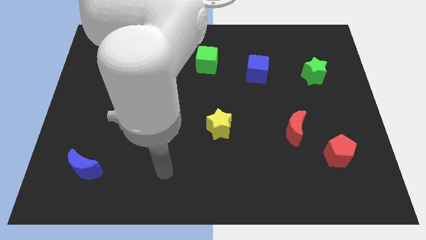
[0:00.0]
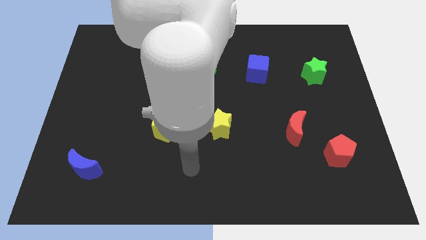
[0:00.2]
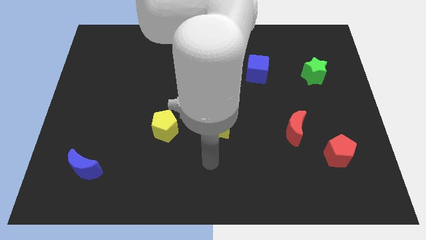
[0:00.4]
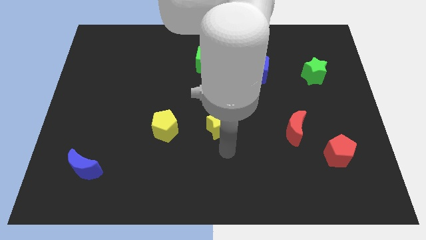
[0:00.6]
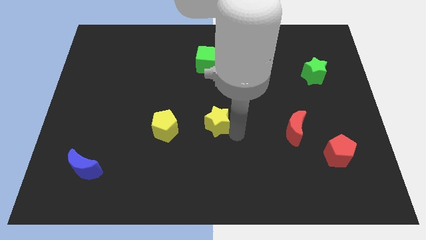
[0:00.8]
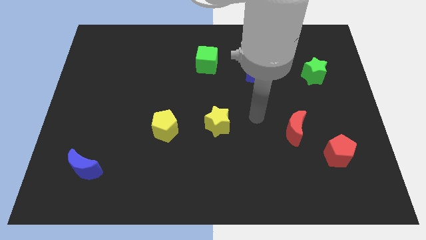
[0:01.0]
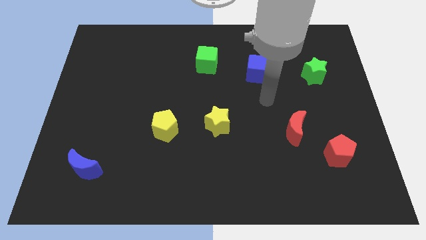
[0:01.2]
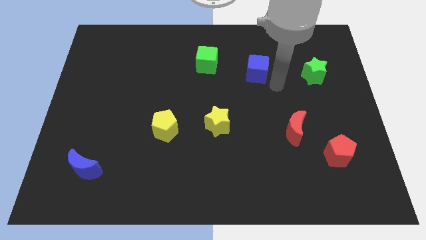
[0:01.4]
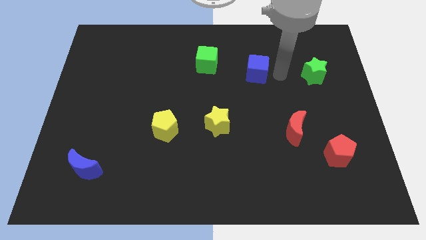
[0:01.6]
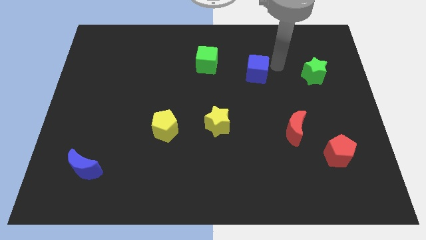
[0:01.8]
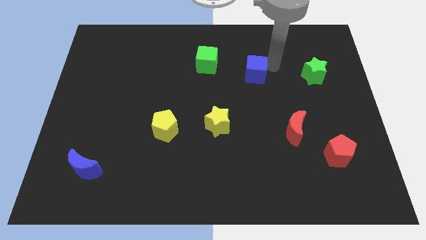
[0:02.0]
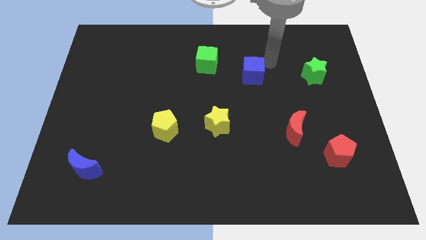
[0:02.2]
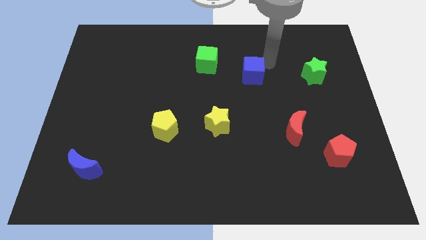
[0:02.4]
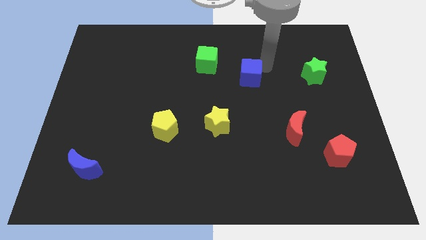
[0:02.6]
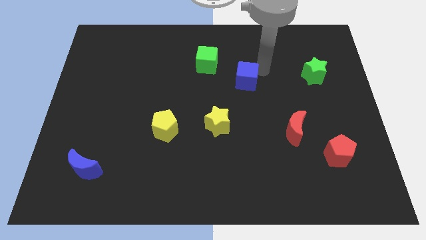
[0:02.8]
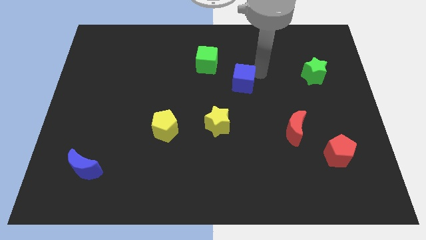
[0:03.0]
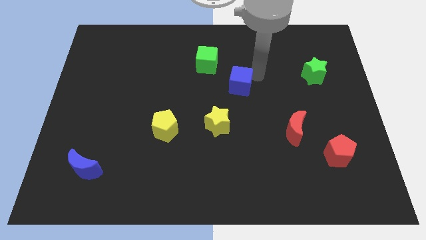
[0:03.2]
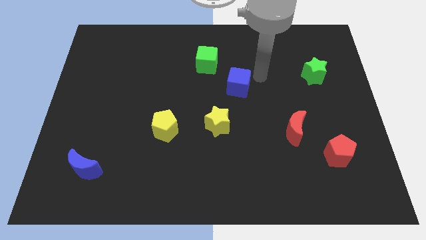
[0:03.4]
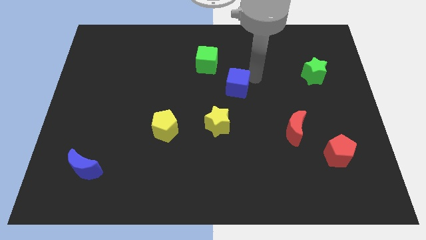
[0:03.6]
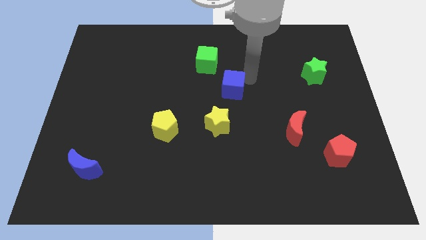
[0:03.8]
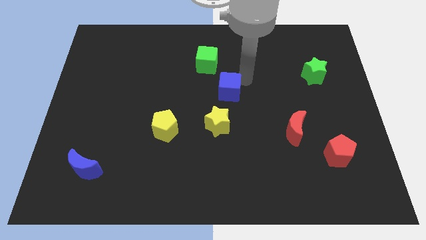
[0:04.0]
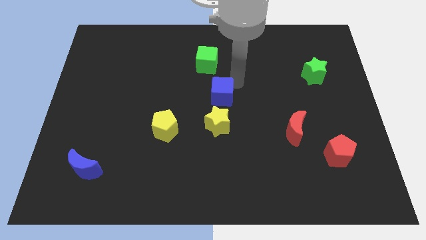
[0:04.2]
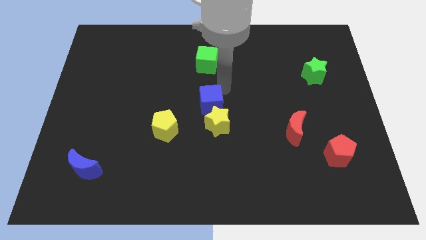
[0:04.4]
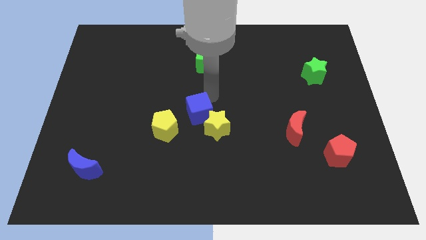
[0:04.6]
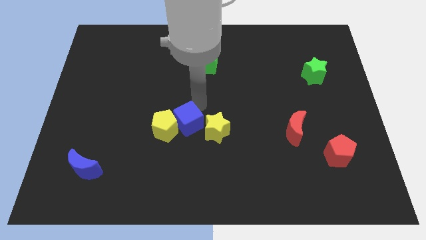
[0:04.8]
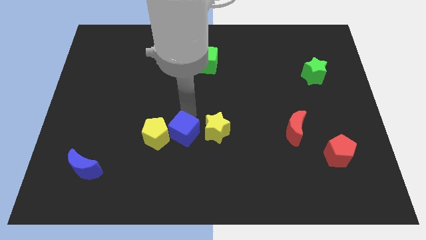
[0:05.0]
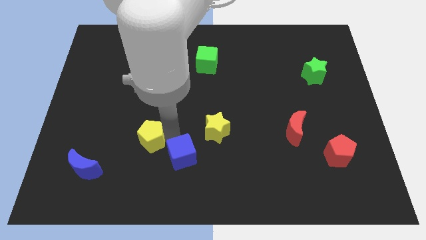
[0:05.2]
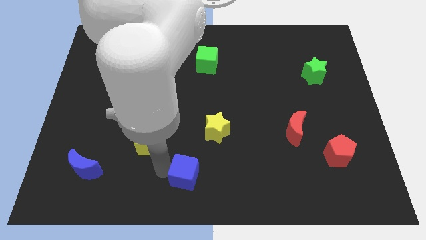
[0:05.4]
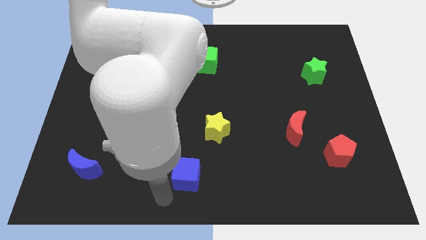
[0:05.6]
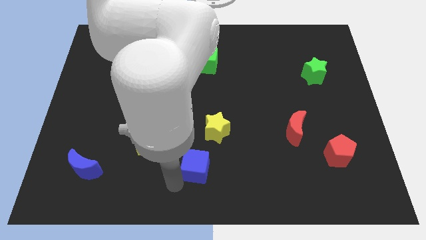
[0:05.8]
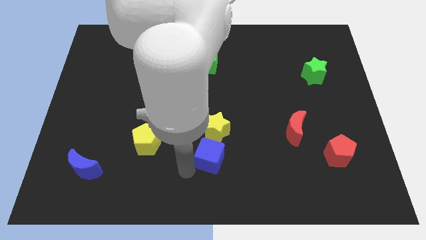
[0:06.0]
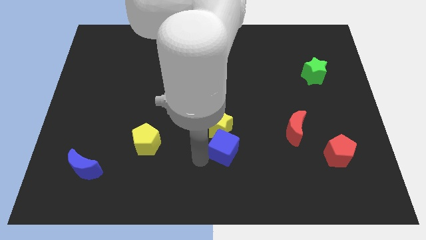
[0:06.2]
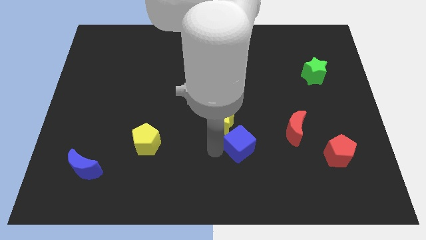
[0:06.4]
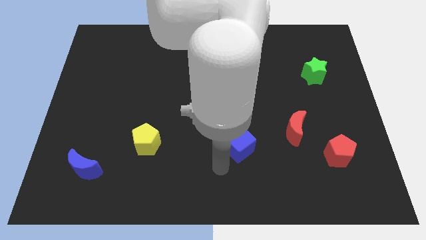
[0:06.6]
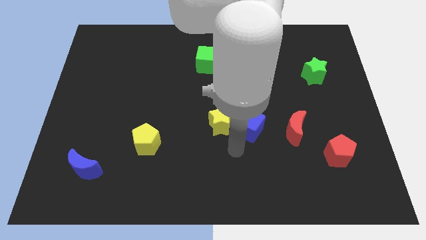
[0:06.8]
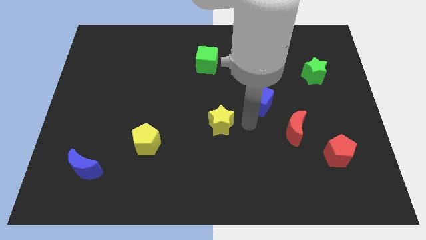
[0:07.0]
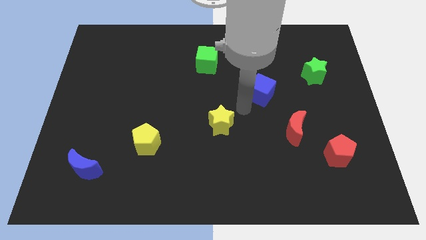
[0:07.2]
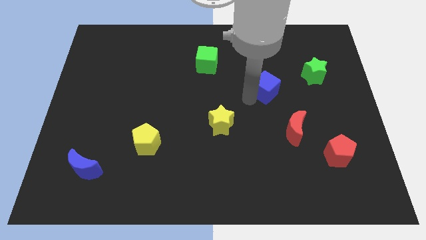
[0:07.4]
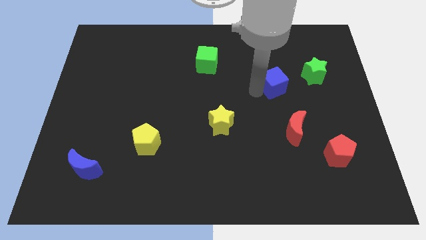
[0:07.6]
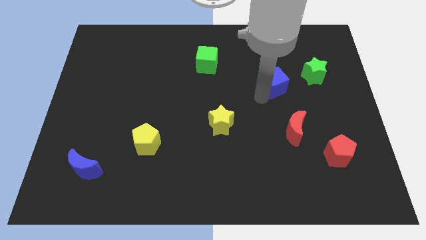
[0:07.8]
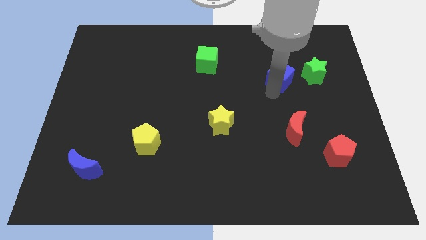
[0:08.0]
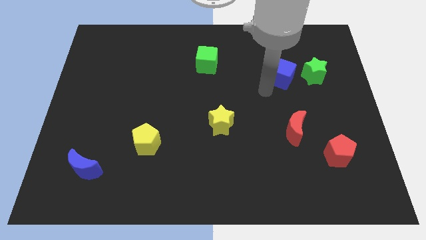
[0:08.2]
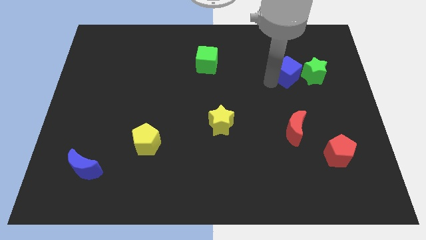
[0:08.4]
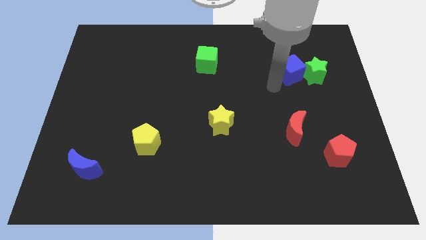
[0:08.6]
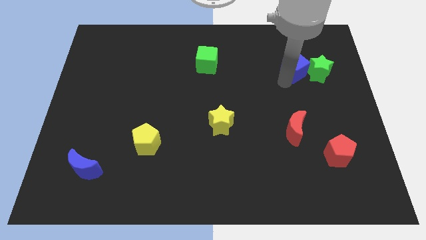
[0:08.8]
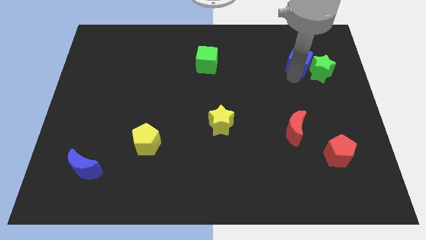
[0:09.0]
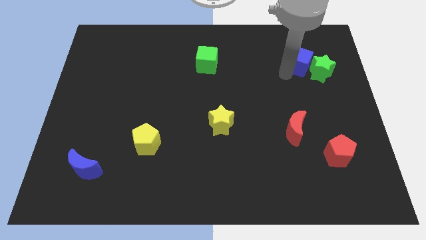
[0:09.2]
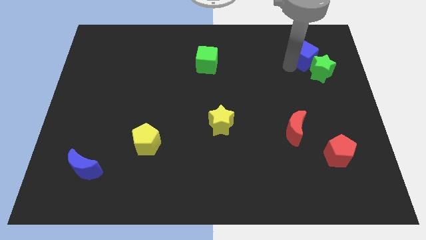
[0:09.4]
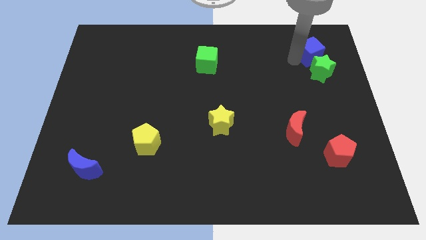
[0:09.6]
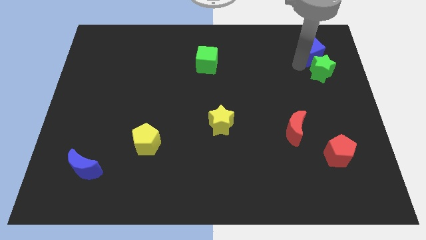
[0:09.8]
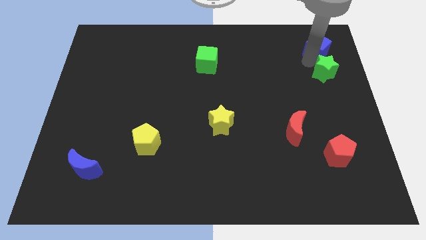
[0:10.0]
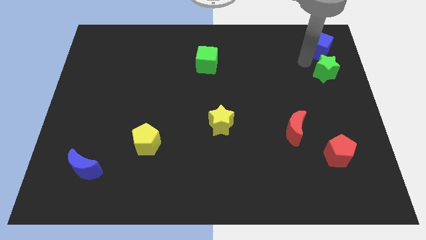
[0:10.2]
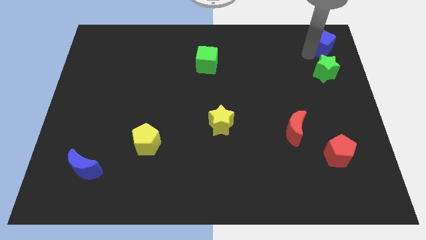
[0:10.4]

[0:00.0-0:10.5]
move the blue cube to the upper right corner

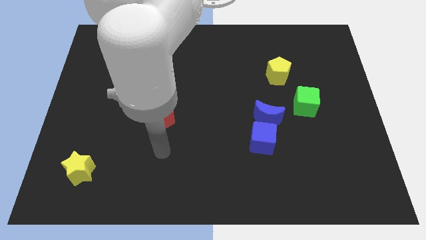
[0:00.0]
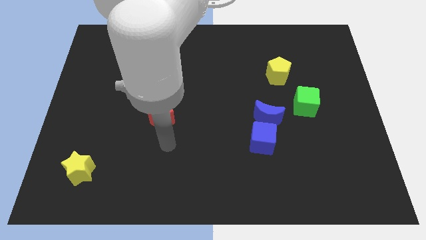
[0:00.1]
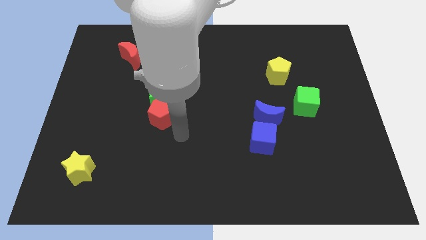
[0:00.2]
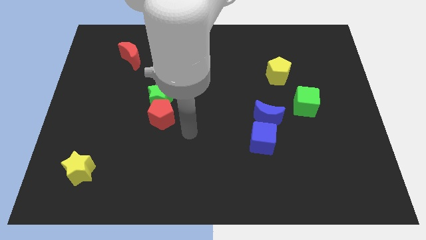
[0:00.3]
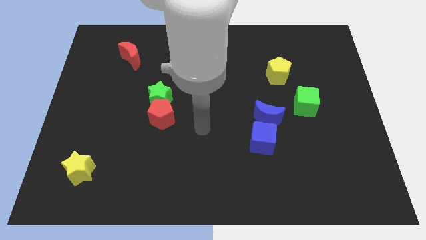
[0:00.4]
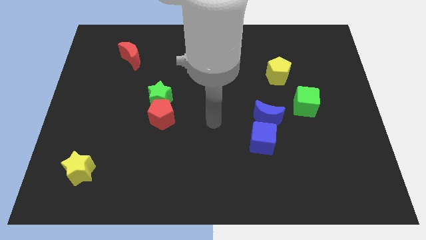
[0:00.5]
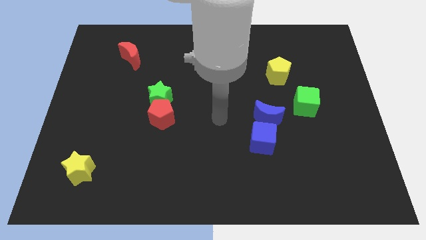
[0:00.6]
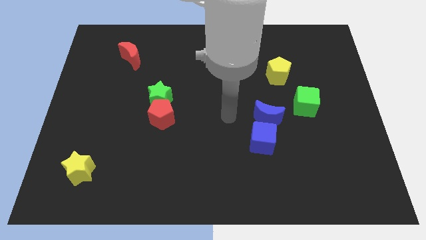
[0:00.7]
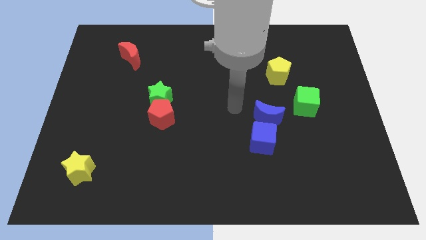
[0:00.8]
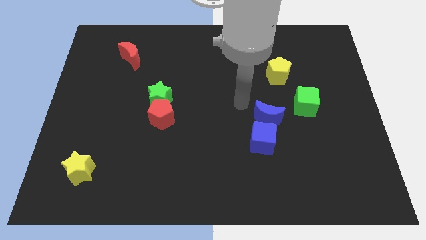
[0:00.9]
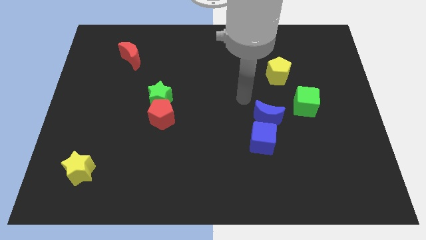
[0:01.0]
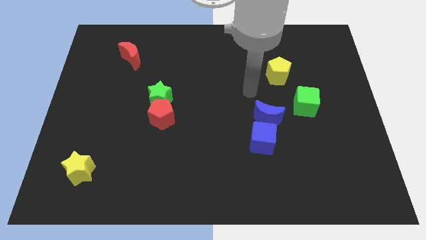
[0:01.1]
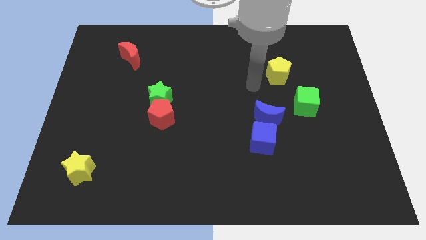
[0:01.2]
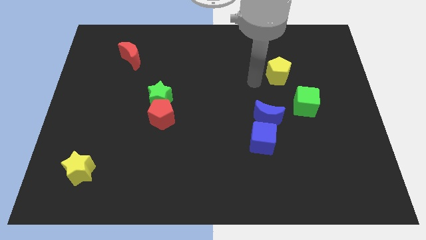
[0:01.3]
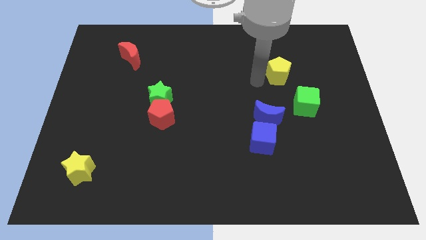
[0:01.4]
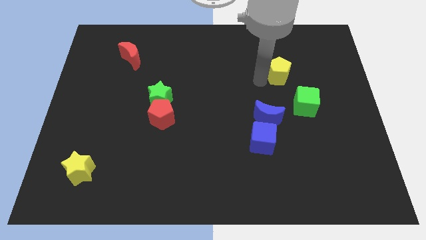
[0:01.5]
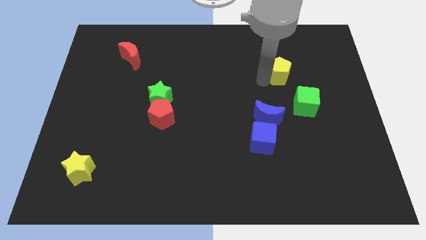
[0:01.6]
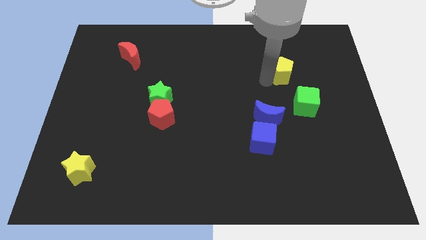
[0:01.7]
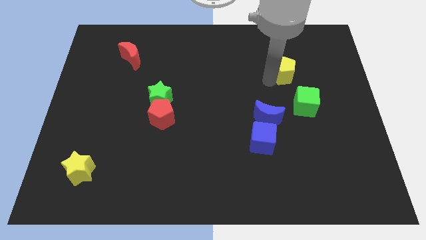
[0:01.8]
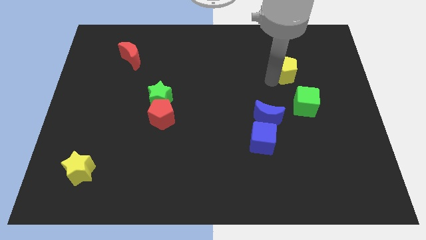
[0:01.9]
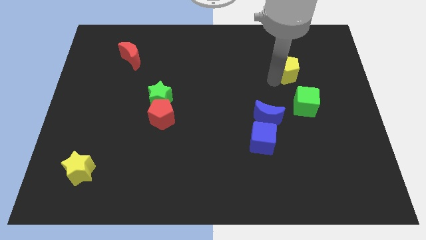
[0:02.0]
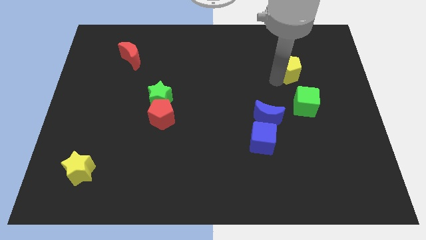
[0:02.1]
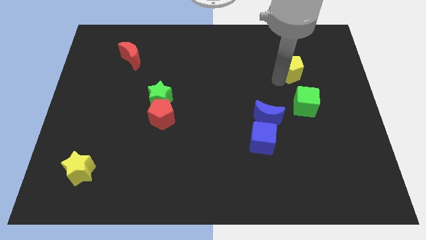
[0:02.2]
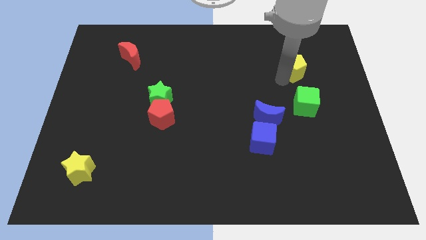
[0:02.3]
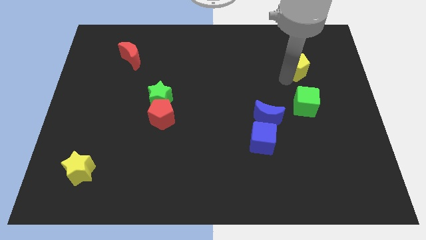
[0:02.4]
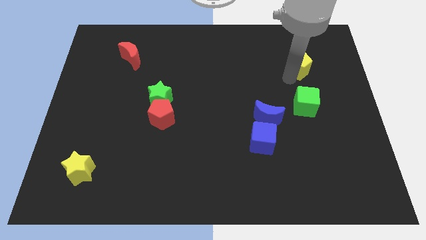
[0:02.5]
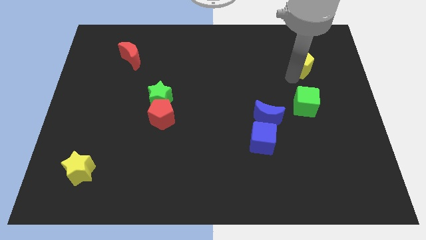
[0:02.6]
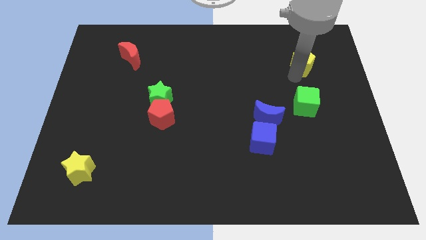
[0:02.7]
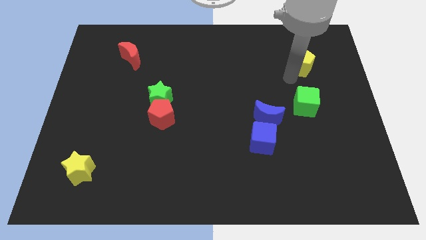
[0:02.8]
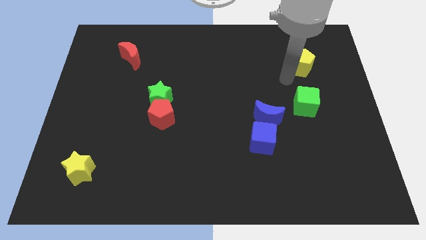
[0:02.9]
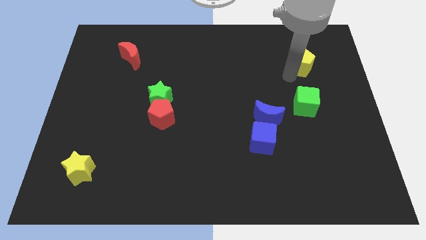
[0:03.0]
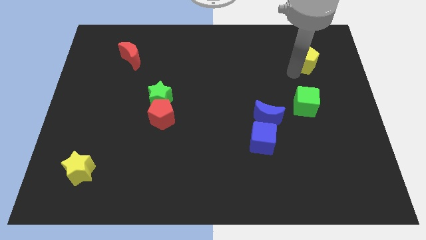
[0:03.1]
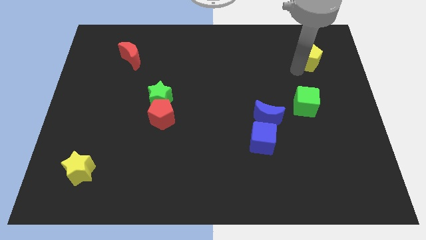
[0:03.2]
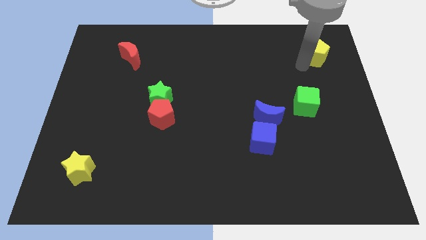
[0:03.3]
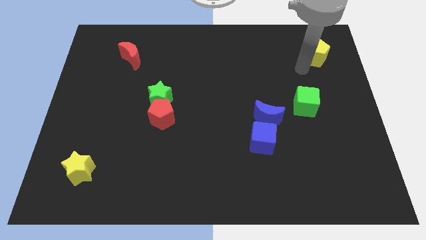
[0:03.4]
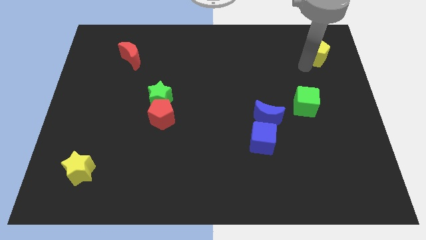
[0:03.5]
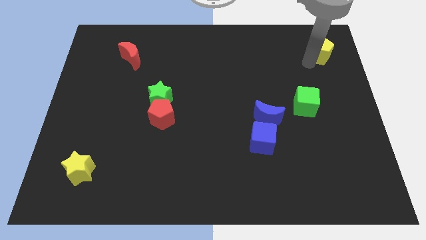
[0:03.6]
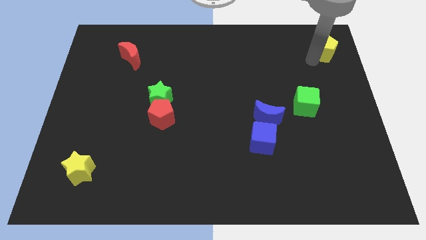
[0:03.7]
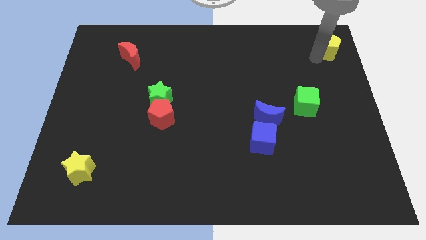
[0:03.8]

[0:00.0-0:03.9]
move the yellow pentagon to the upper right corner
